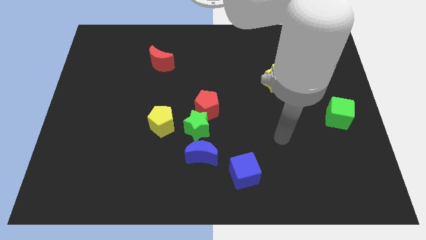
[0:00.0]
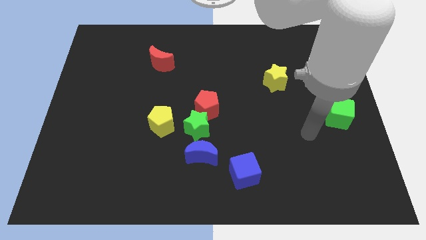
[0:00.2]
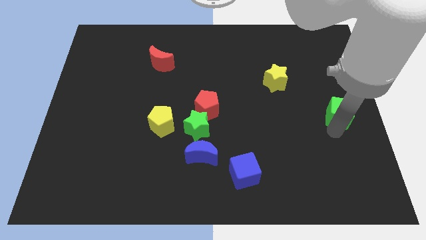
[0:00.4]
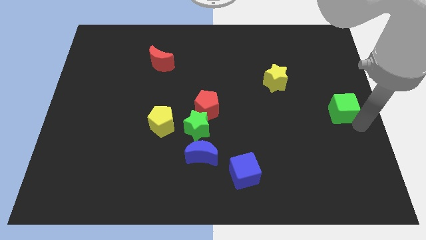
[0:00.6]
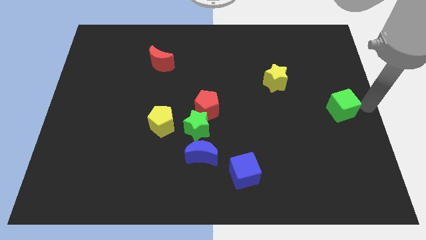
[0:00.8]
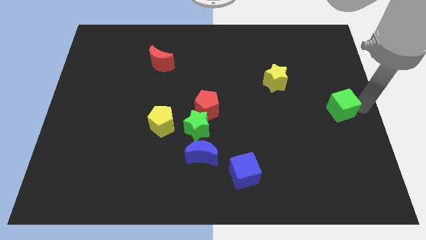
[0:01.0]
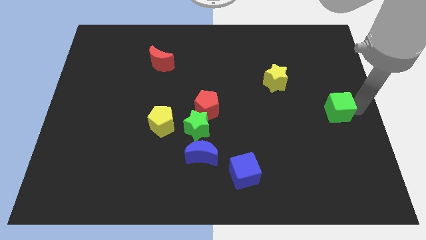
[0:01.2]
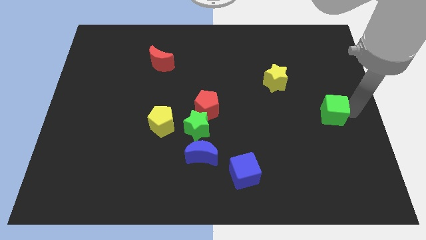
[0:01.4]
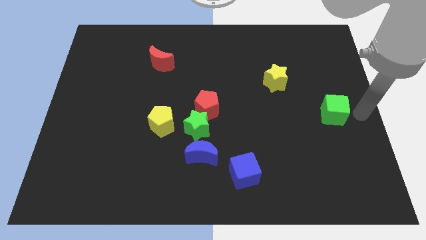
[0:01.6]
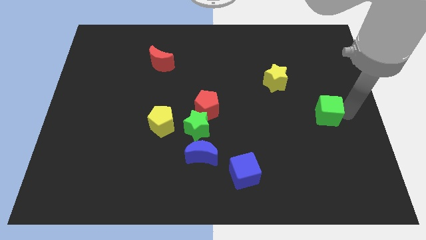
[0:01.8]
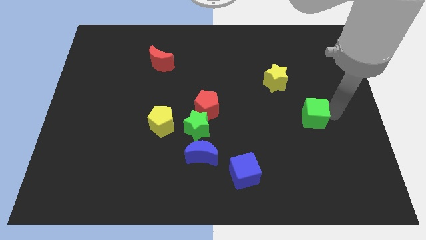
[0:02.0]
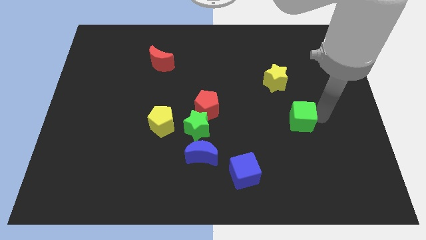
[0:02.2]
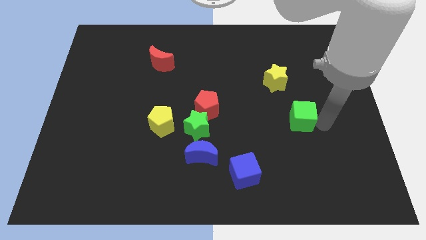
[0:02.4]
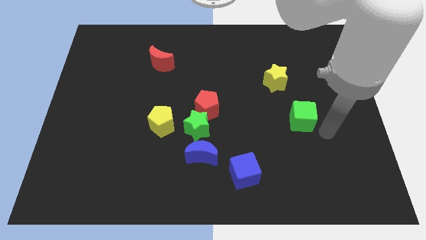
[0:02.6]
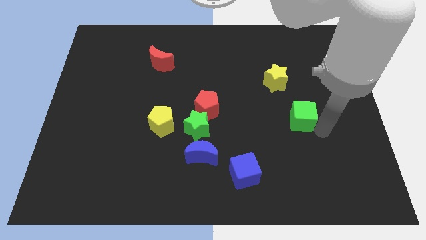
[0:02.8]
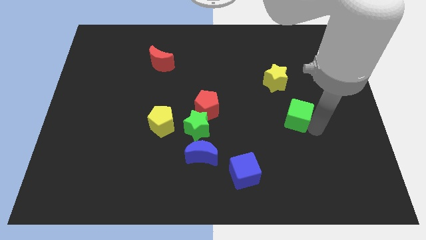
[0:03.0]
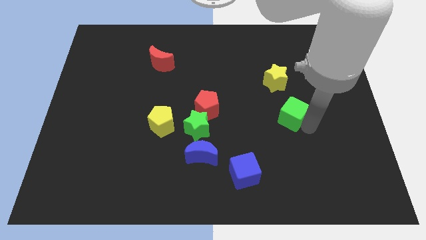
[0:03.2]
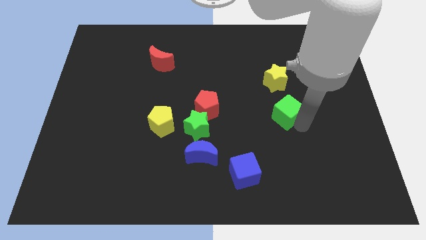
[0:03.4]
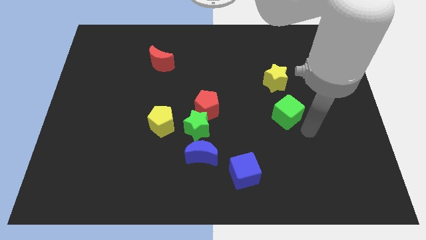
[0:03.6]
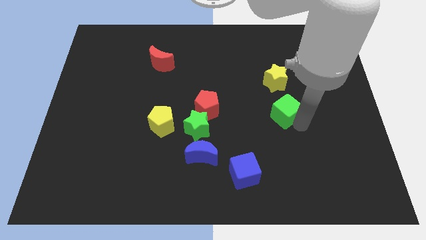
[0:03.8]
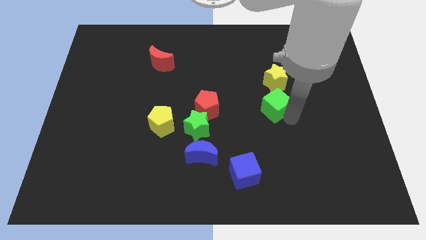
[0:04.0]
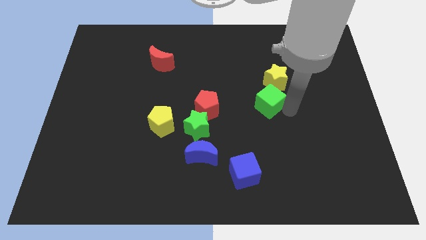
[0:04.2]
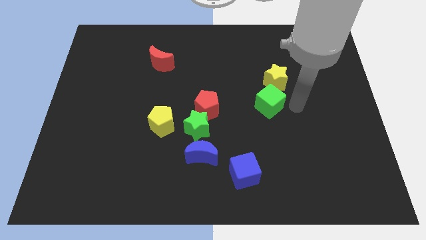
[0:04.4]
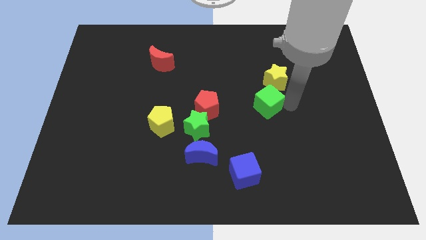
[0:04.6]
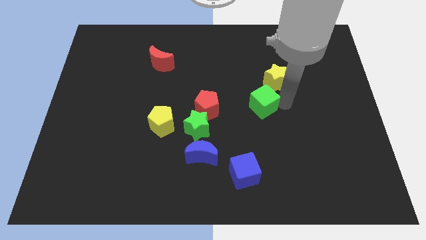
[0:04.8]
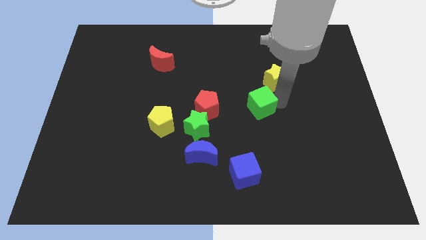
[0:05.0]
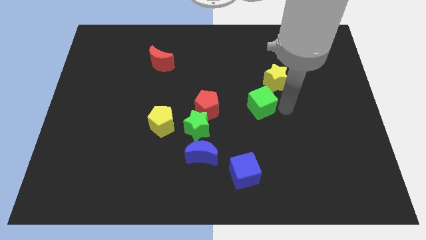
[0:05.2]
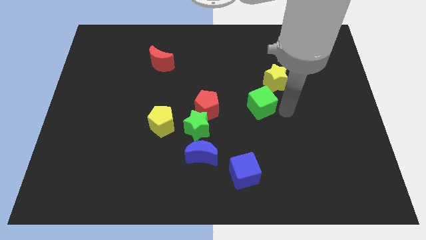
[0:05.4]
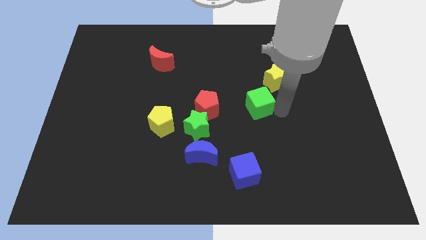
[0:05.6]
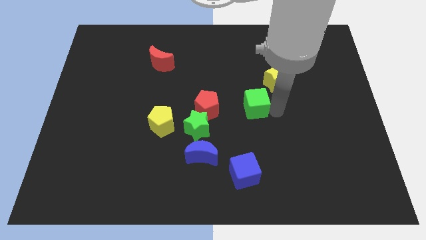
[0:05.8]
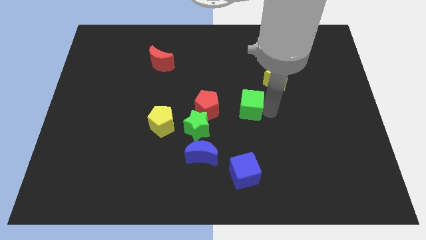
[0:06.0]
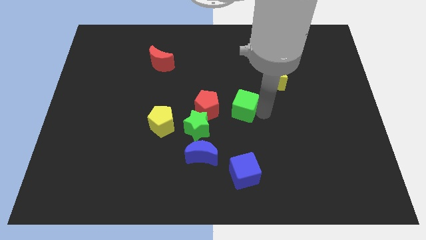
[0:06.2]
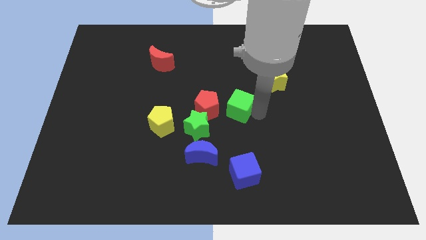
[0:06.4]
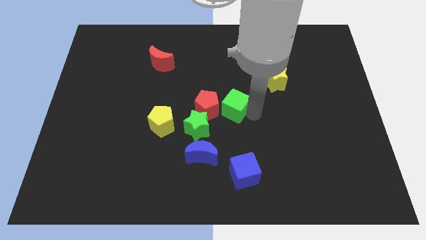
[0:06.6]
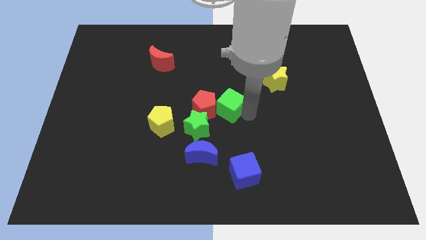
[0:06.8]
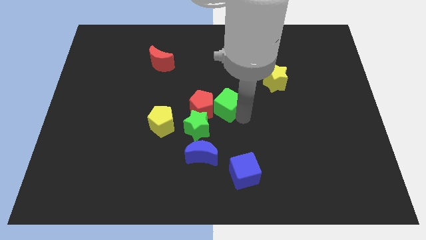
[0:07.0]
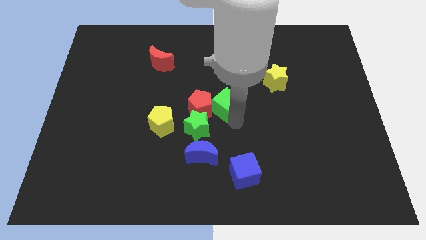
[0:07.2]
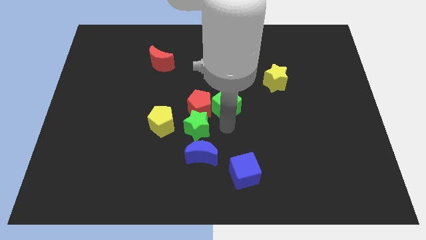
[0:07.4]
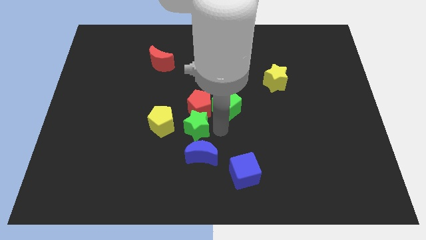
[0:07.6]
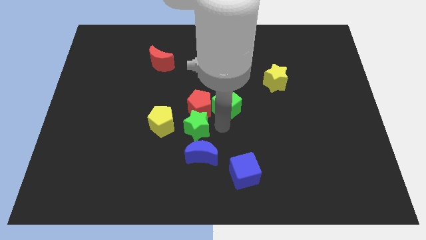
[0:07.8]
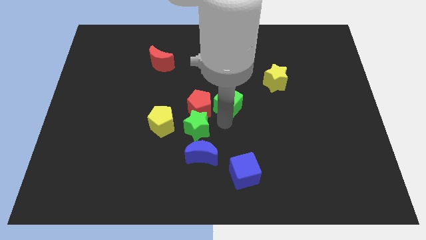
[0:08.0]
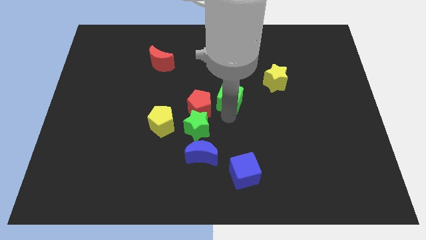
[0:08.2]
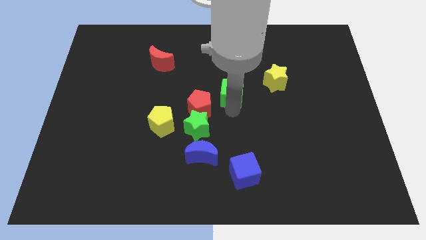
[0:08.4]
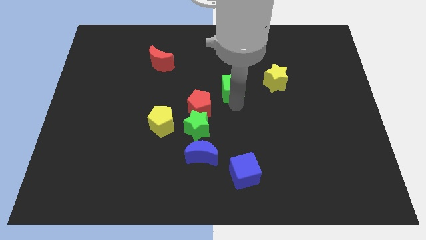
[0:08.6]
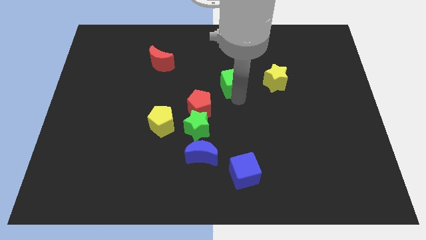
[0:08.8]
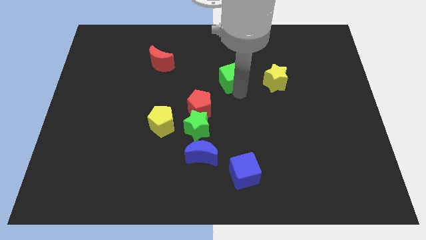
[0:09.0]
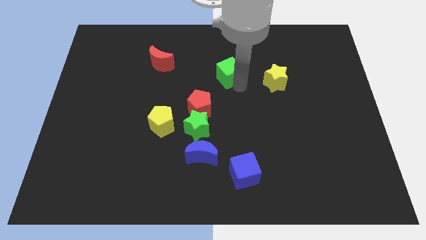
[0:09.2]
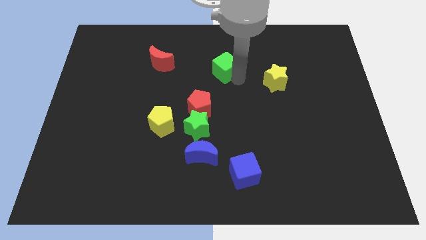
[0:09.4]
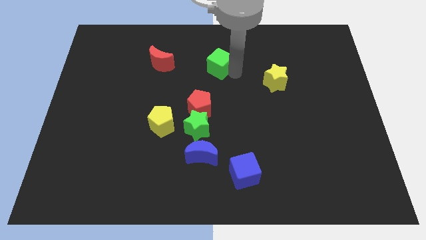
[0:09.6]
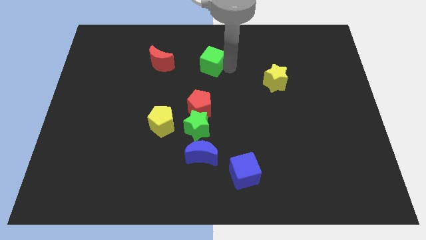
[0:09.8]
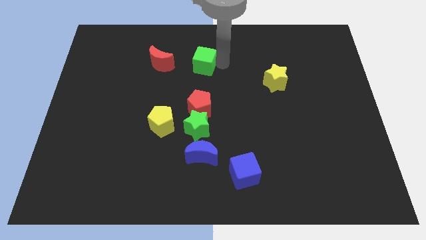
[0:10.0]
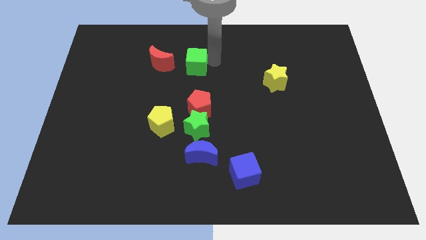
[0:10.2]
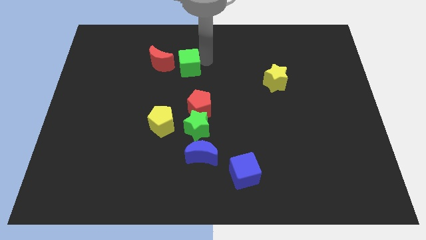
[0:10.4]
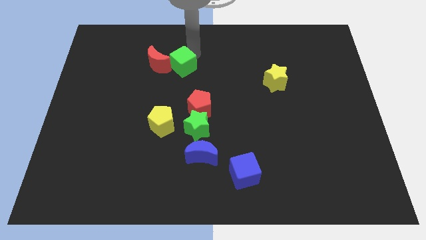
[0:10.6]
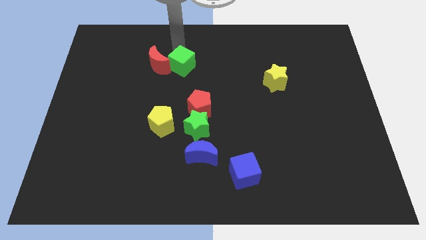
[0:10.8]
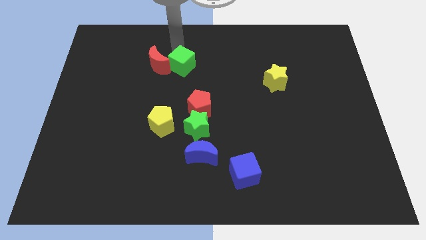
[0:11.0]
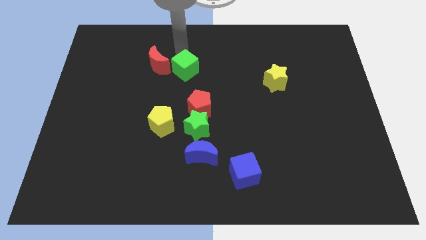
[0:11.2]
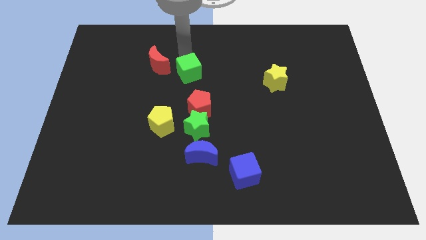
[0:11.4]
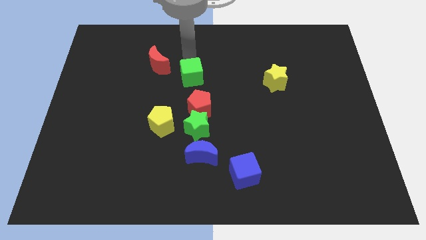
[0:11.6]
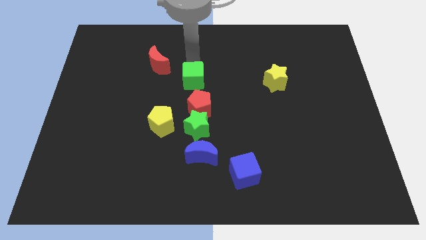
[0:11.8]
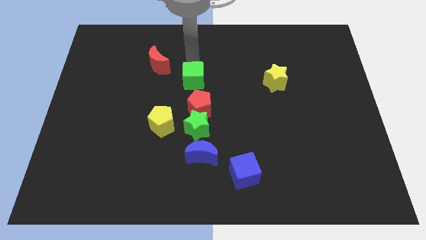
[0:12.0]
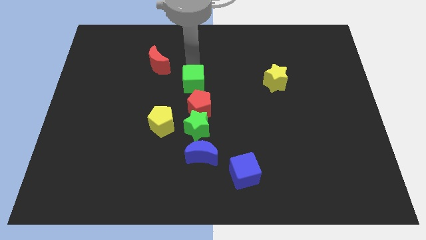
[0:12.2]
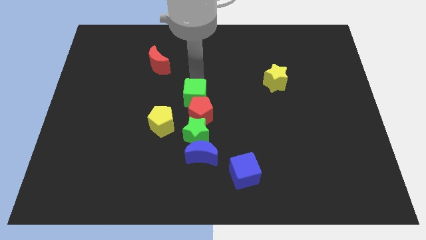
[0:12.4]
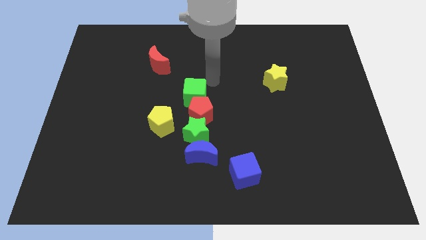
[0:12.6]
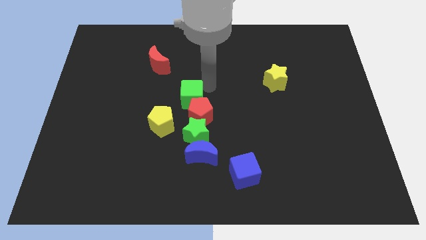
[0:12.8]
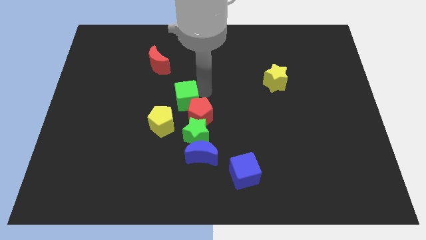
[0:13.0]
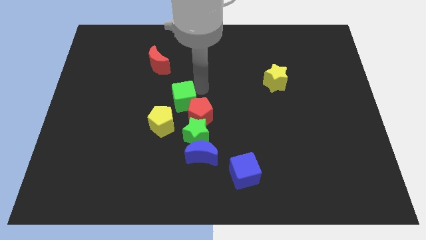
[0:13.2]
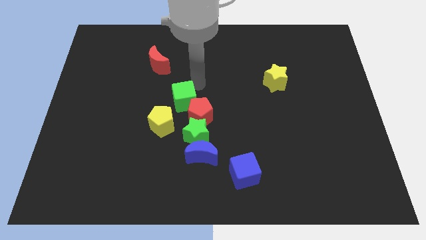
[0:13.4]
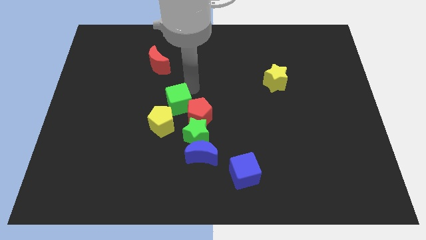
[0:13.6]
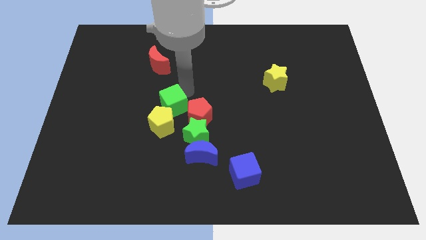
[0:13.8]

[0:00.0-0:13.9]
push the green cube close to the yellow pentagon

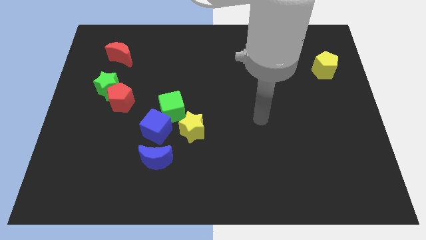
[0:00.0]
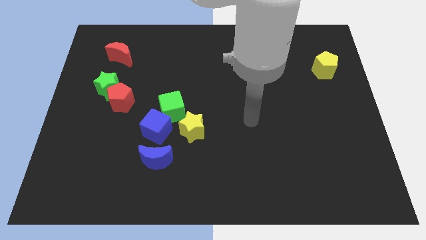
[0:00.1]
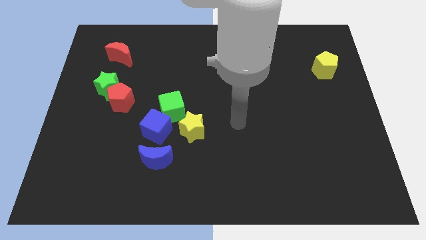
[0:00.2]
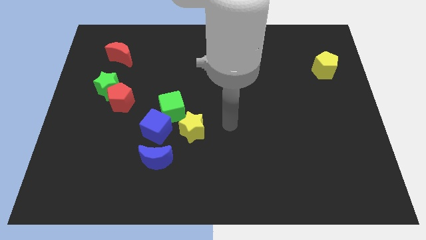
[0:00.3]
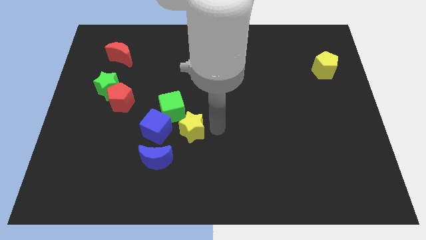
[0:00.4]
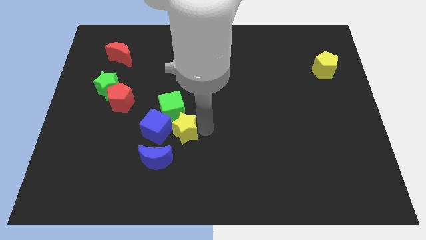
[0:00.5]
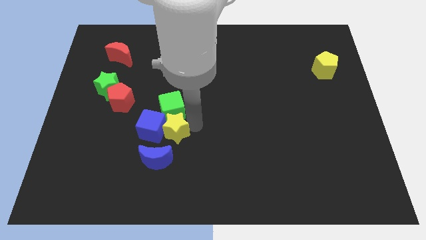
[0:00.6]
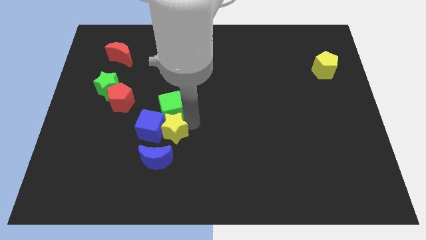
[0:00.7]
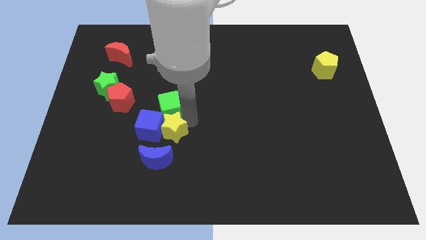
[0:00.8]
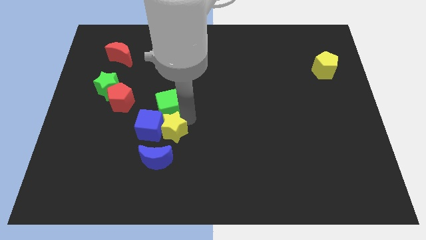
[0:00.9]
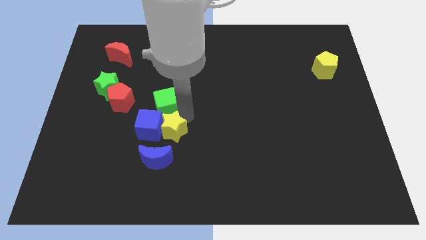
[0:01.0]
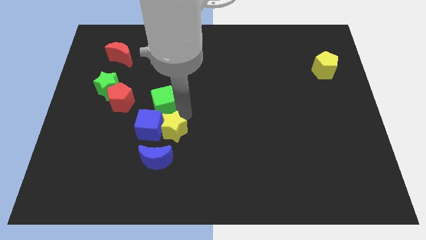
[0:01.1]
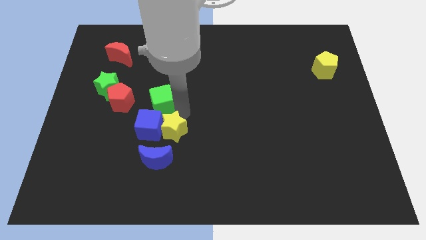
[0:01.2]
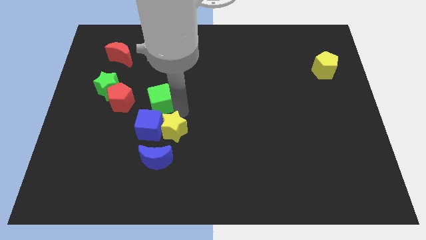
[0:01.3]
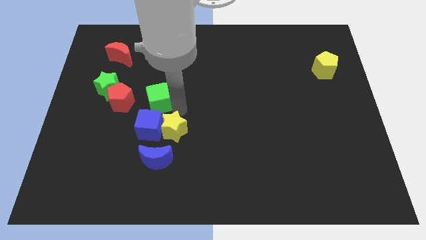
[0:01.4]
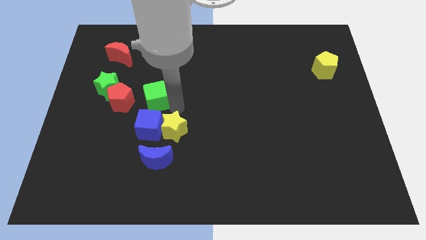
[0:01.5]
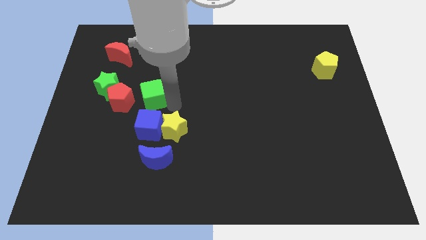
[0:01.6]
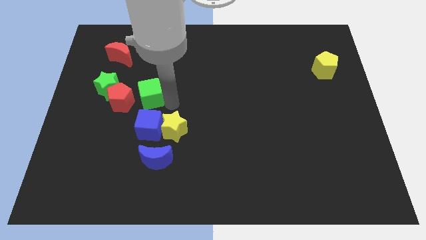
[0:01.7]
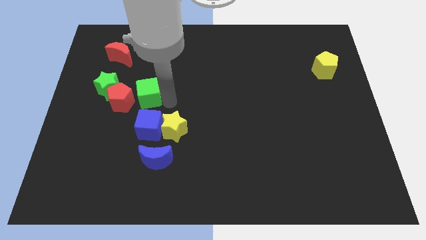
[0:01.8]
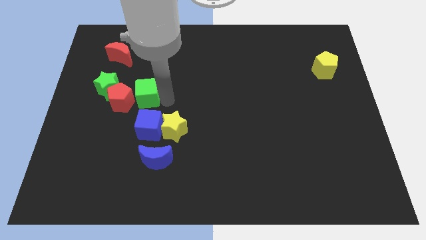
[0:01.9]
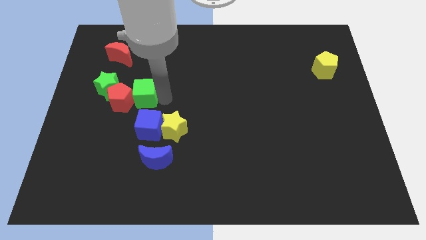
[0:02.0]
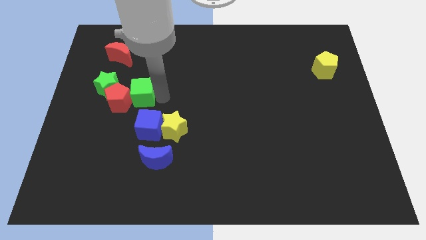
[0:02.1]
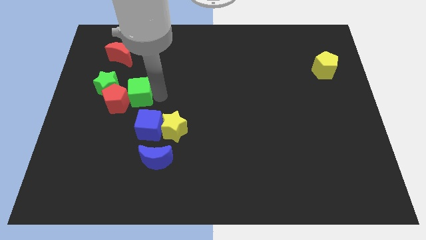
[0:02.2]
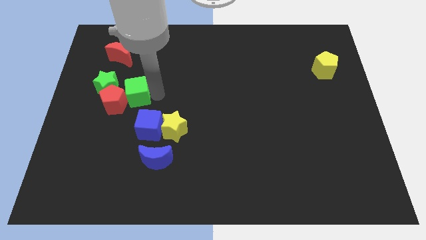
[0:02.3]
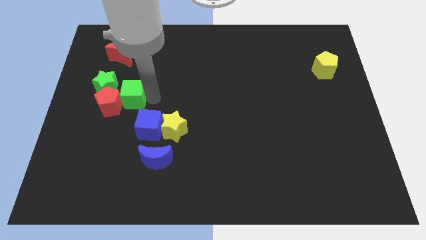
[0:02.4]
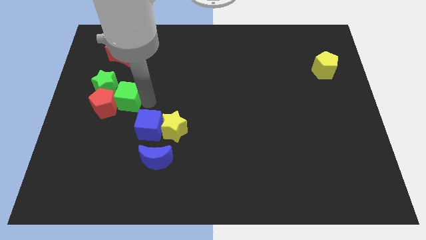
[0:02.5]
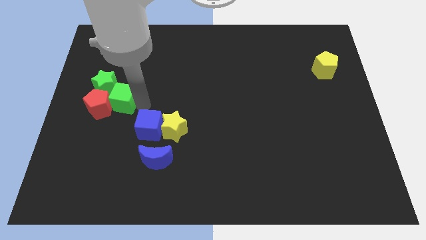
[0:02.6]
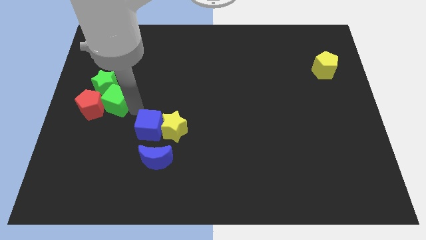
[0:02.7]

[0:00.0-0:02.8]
put the green cube to the green star
